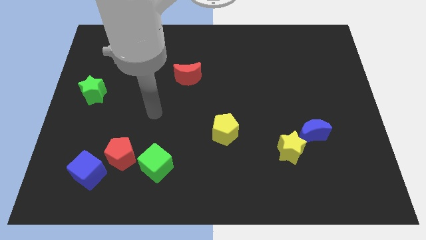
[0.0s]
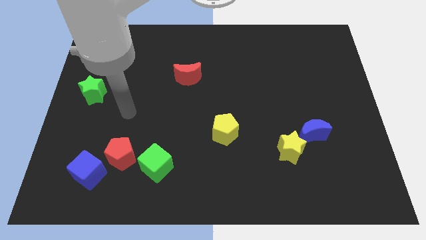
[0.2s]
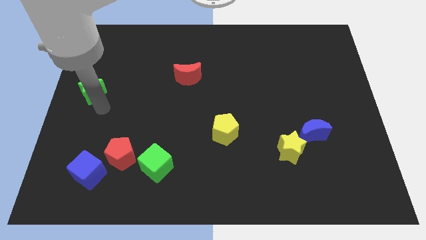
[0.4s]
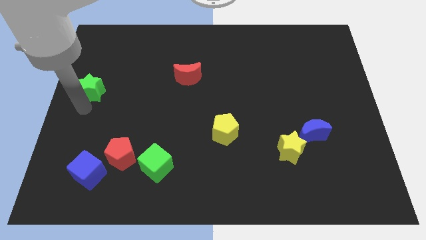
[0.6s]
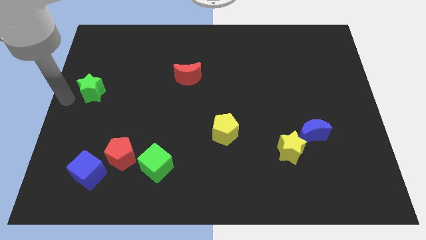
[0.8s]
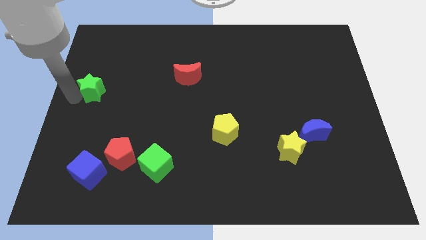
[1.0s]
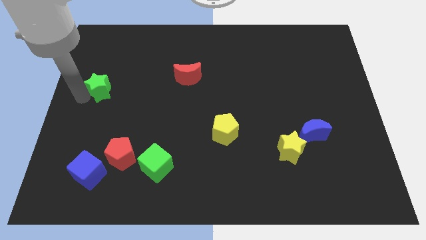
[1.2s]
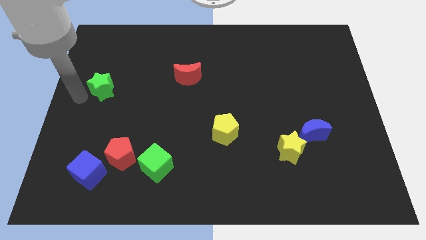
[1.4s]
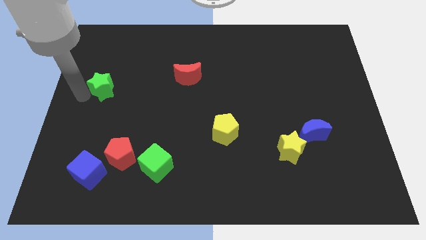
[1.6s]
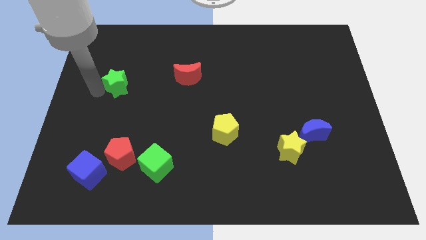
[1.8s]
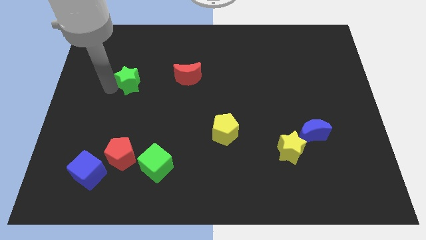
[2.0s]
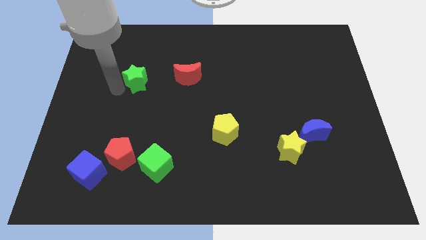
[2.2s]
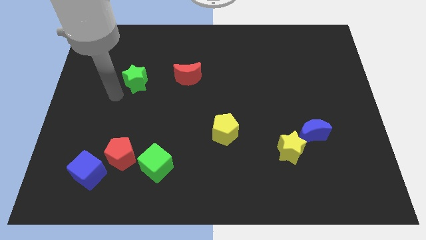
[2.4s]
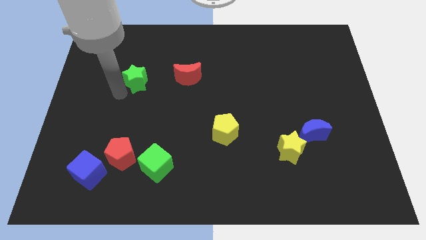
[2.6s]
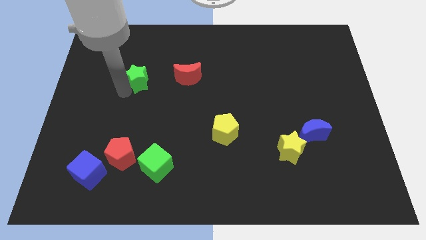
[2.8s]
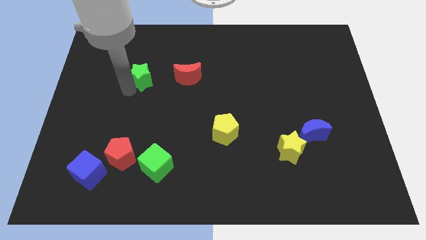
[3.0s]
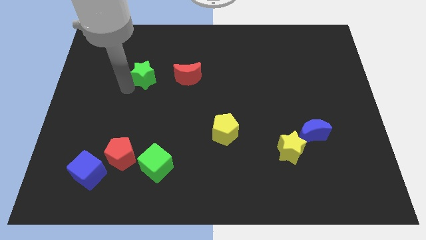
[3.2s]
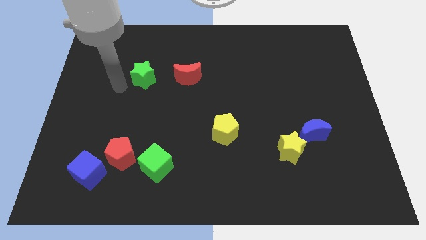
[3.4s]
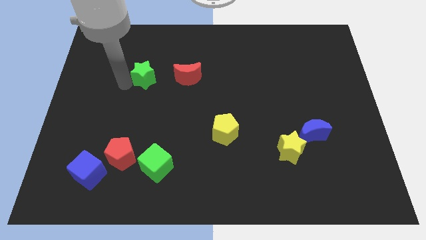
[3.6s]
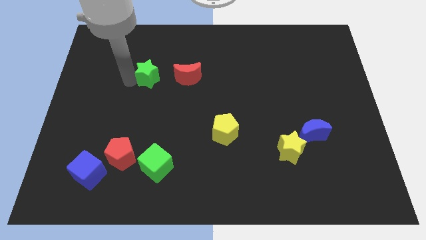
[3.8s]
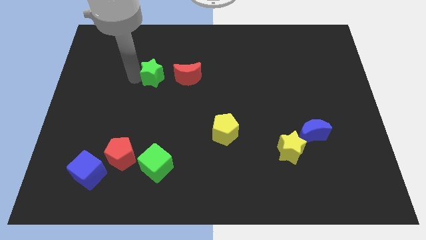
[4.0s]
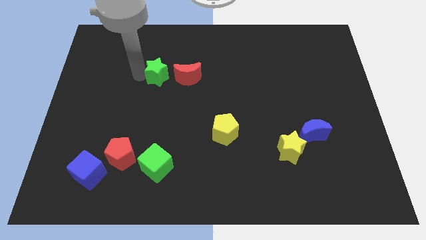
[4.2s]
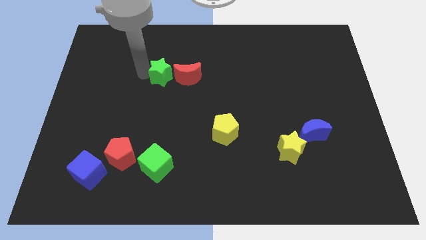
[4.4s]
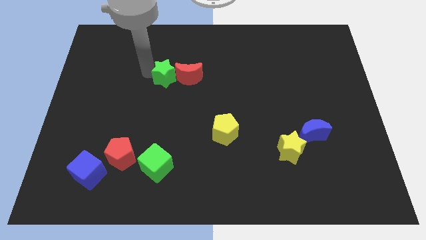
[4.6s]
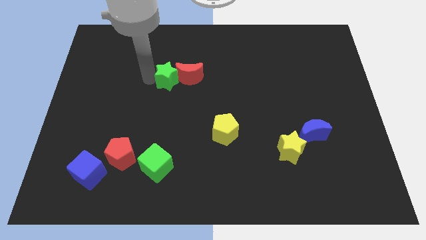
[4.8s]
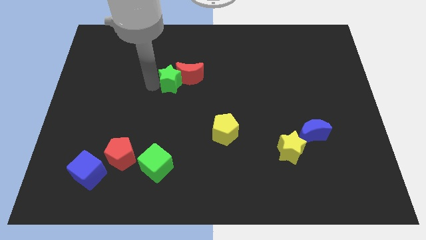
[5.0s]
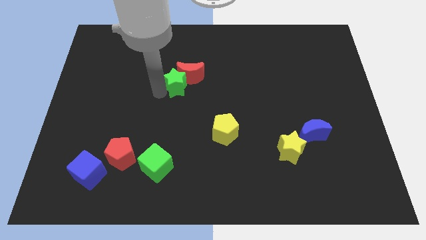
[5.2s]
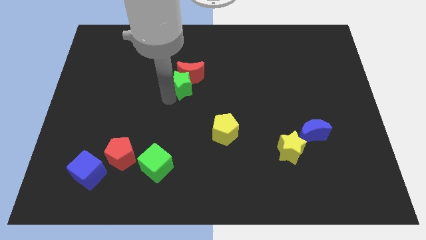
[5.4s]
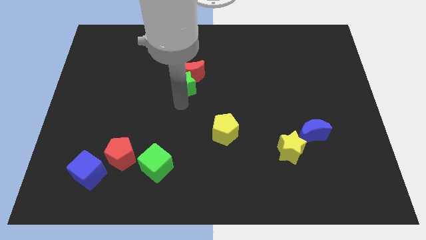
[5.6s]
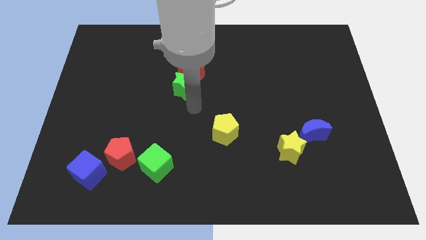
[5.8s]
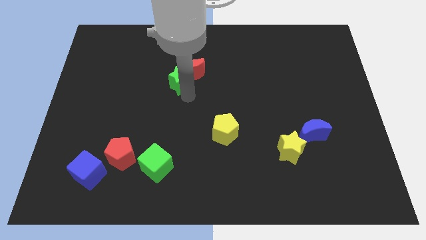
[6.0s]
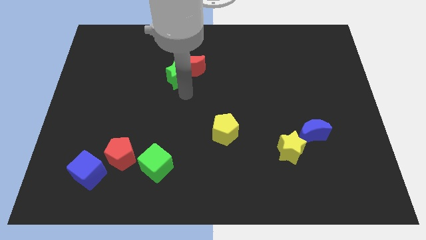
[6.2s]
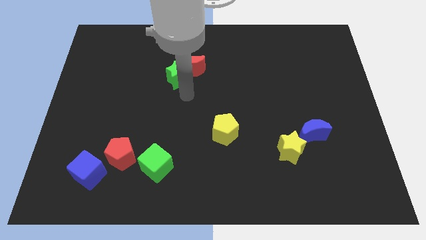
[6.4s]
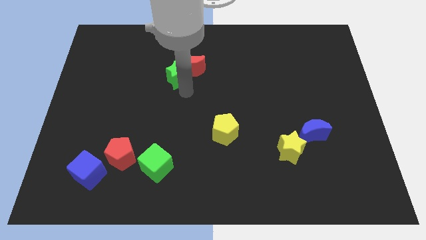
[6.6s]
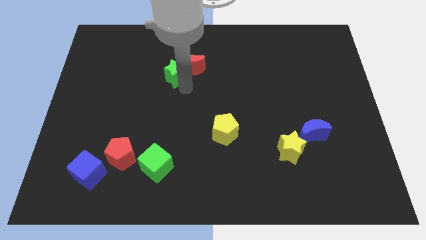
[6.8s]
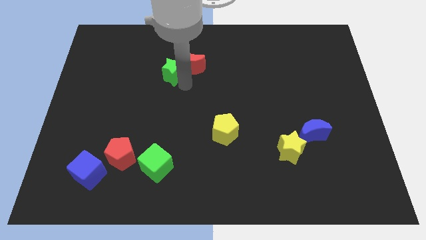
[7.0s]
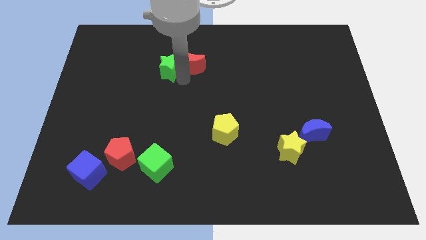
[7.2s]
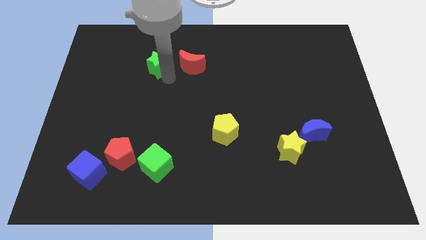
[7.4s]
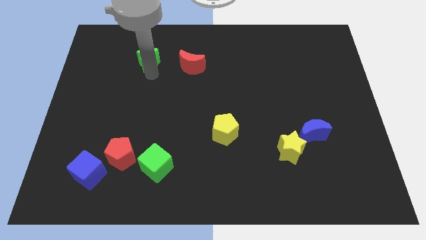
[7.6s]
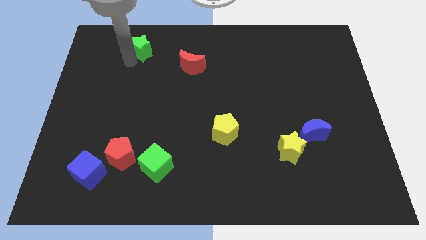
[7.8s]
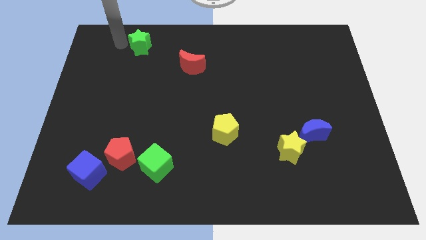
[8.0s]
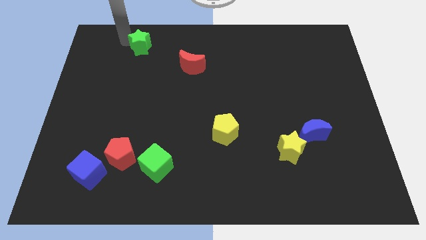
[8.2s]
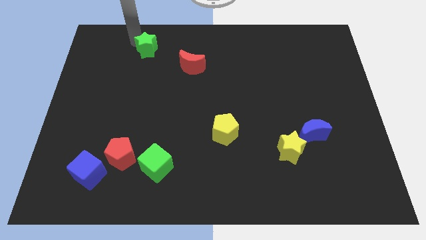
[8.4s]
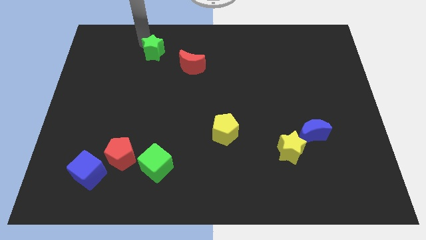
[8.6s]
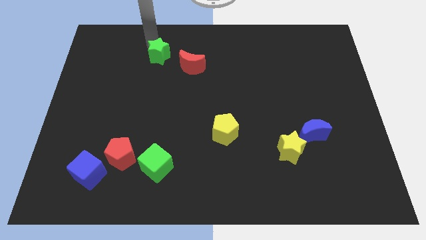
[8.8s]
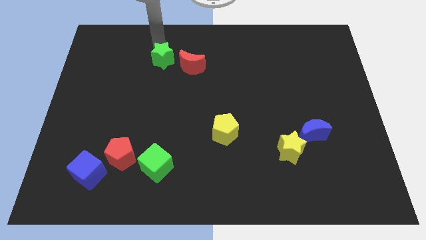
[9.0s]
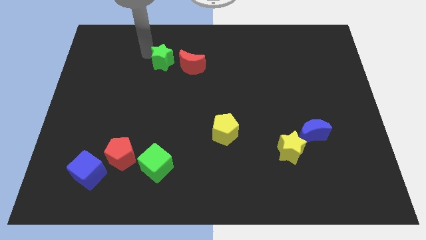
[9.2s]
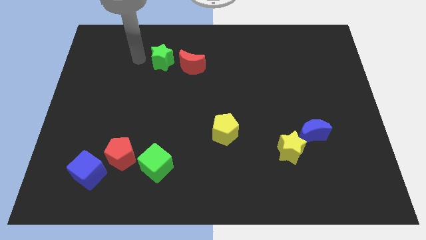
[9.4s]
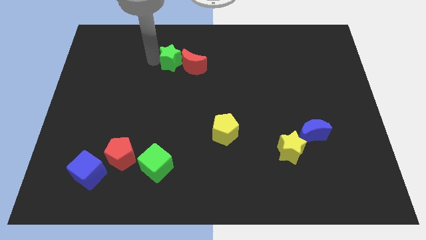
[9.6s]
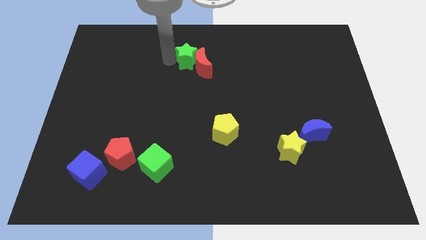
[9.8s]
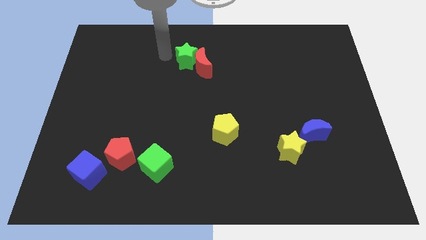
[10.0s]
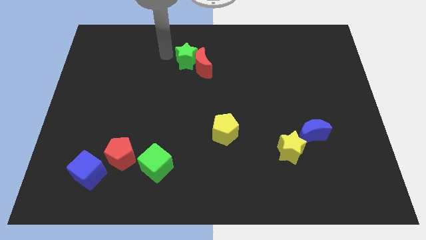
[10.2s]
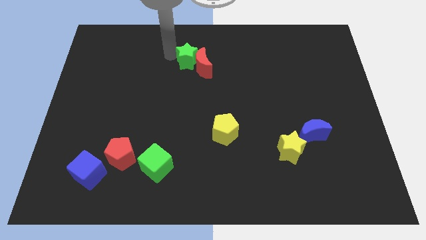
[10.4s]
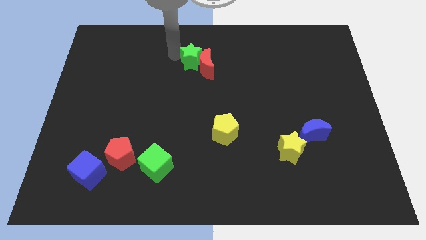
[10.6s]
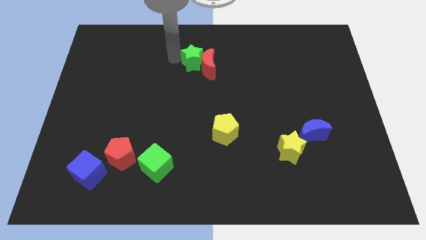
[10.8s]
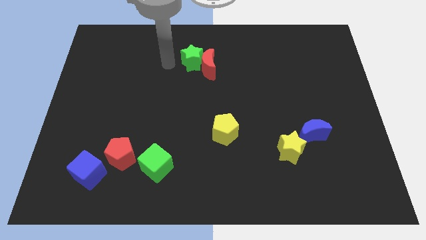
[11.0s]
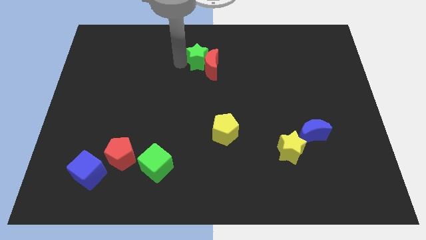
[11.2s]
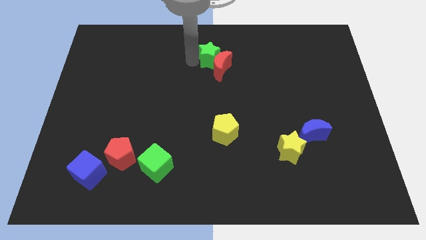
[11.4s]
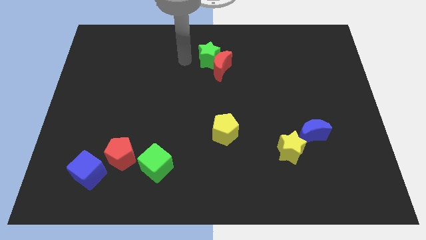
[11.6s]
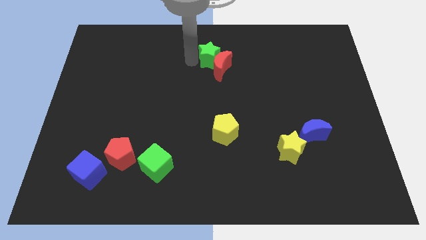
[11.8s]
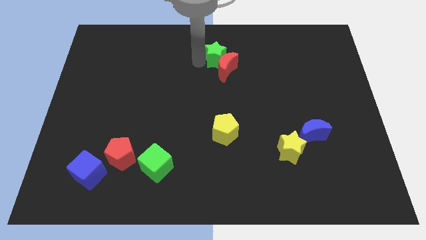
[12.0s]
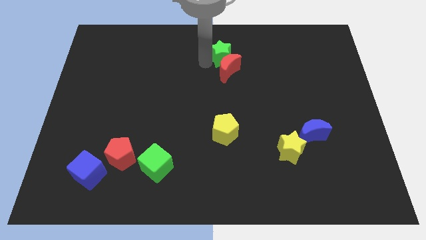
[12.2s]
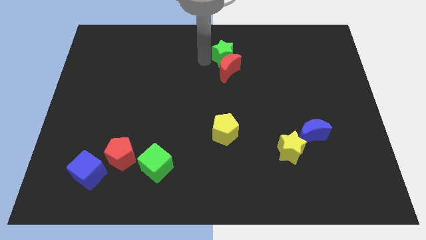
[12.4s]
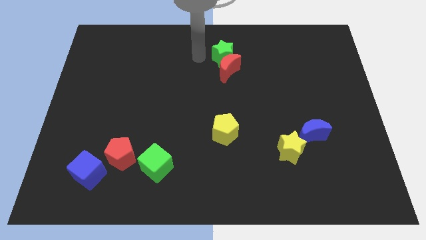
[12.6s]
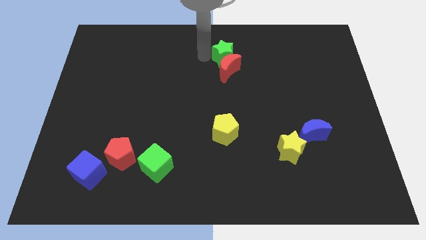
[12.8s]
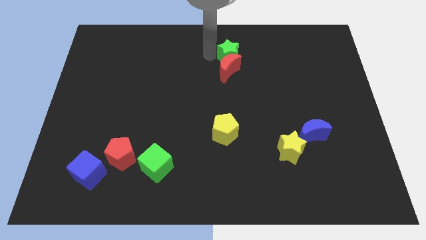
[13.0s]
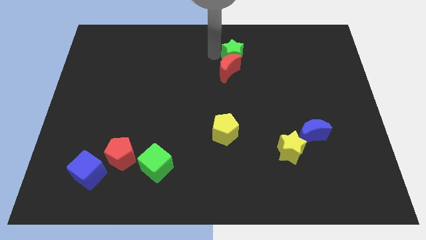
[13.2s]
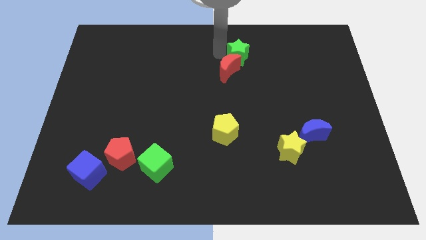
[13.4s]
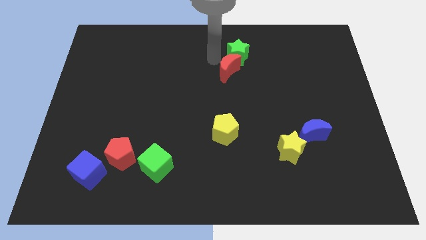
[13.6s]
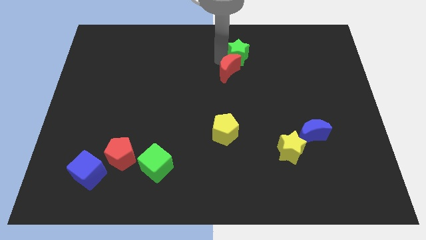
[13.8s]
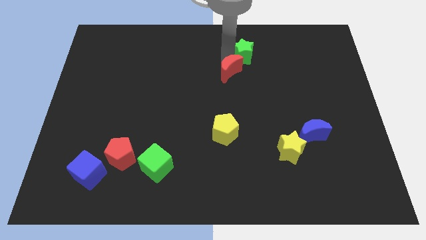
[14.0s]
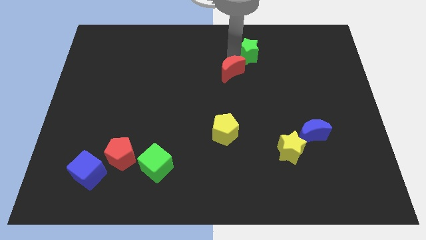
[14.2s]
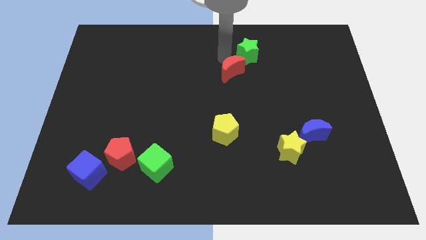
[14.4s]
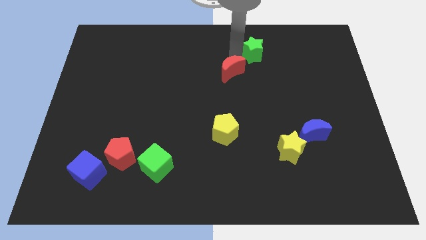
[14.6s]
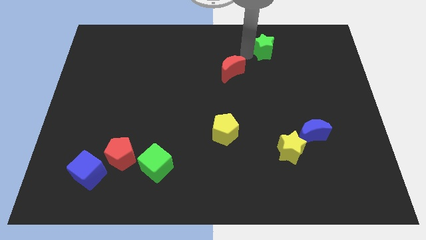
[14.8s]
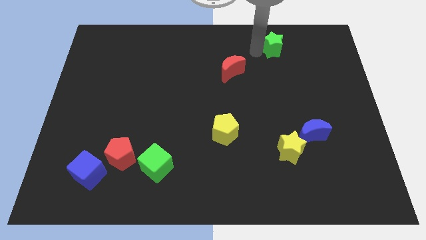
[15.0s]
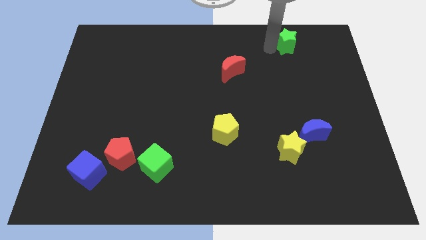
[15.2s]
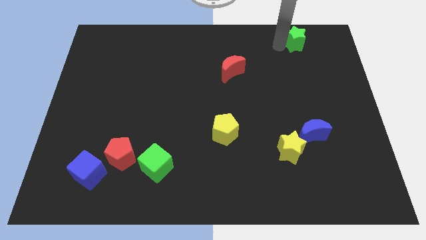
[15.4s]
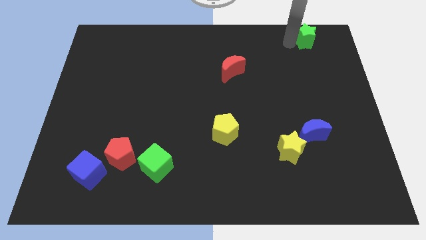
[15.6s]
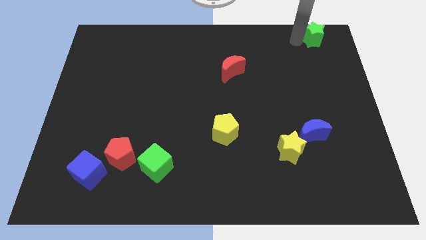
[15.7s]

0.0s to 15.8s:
move the green star to the top right corner
